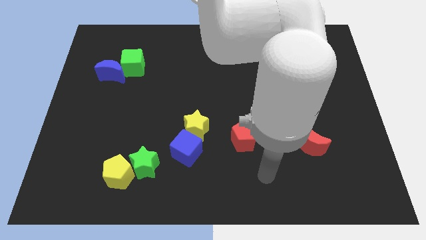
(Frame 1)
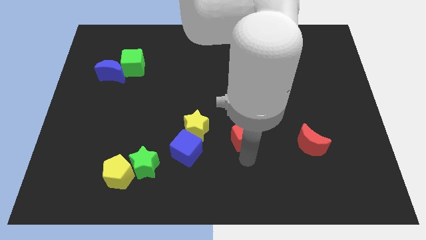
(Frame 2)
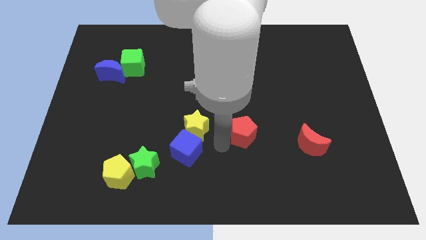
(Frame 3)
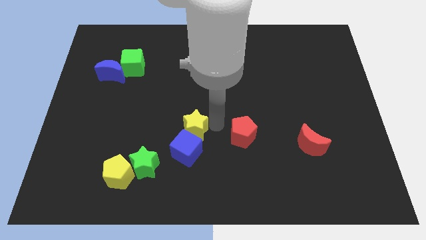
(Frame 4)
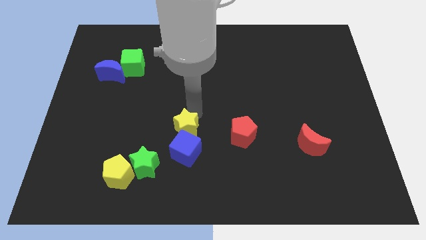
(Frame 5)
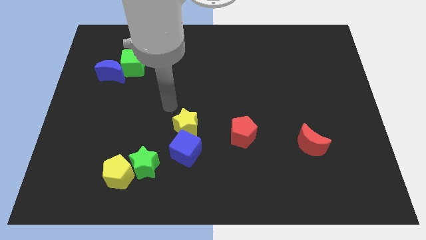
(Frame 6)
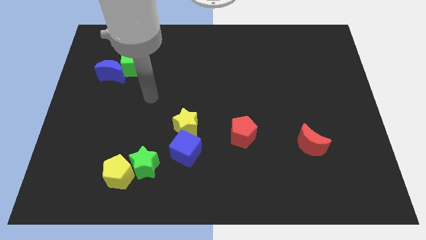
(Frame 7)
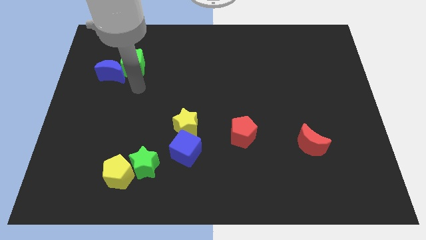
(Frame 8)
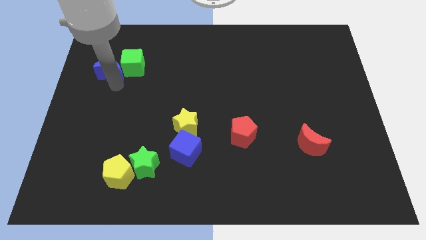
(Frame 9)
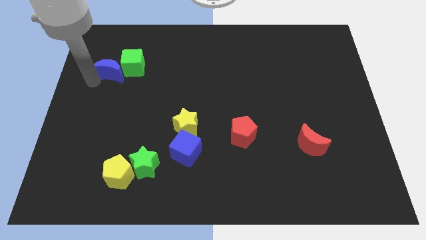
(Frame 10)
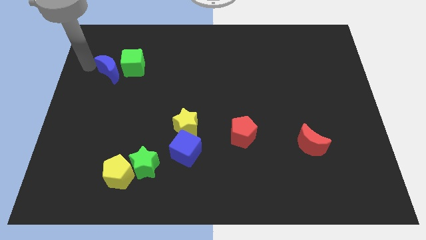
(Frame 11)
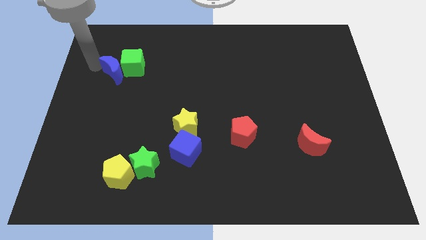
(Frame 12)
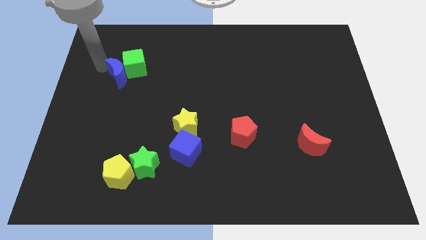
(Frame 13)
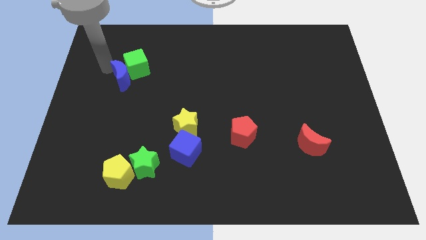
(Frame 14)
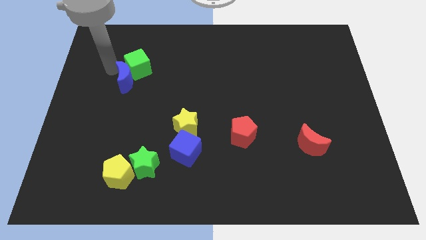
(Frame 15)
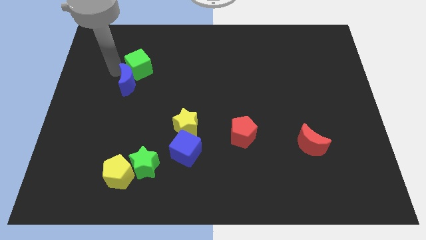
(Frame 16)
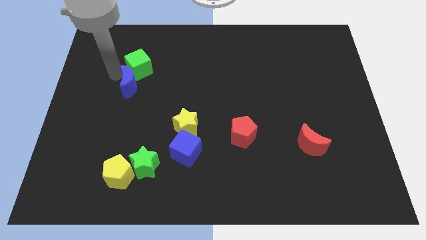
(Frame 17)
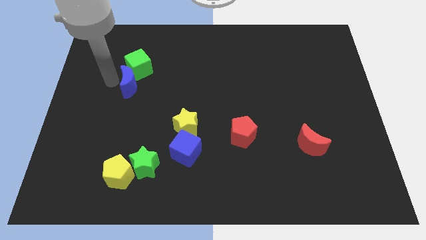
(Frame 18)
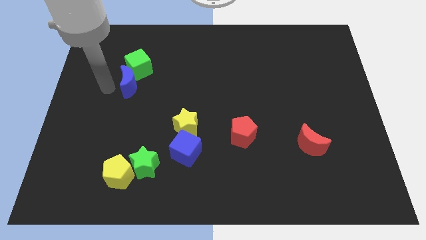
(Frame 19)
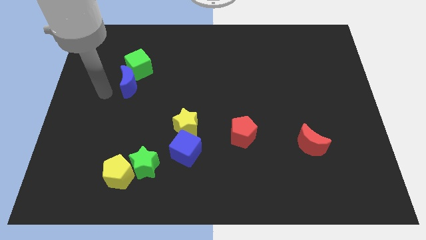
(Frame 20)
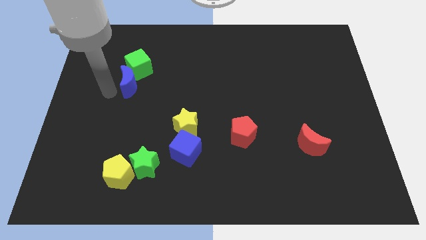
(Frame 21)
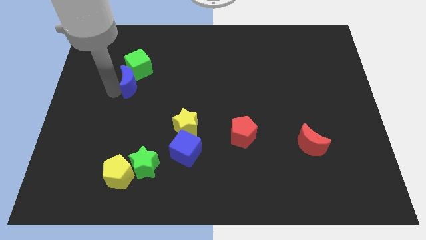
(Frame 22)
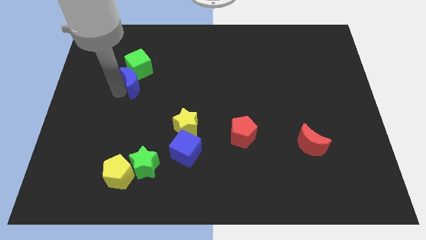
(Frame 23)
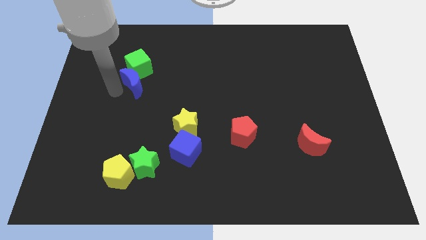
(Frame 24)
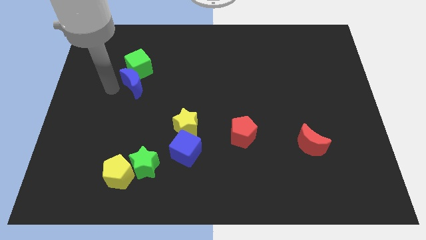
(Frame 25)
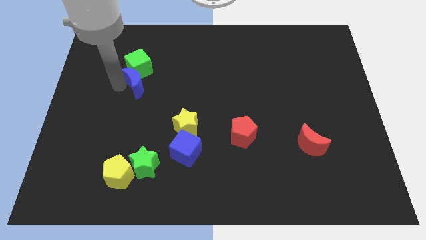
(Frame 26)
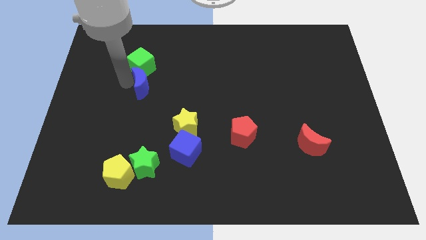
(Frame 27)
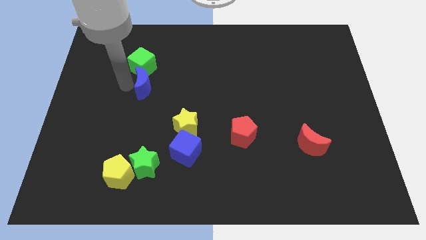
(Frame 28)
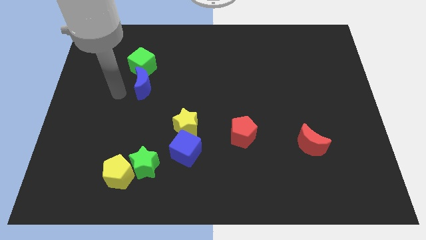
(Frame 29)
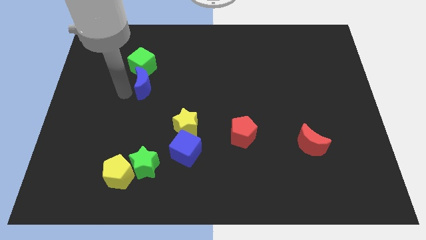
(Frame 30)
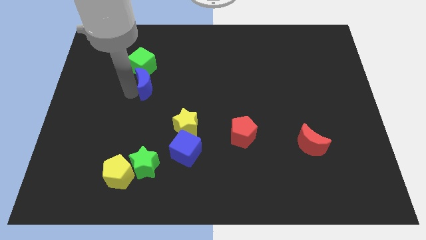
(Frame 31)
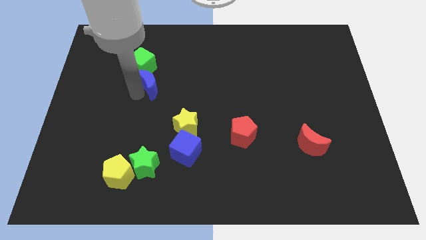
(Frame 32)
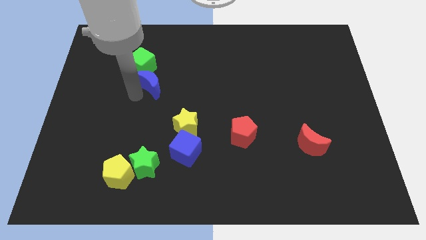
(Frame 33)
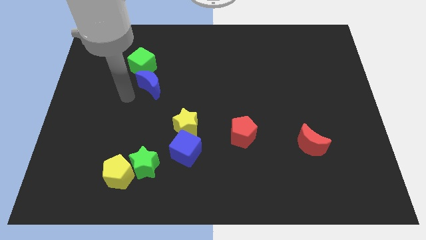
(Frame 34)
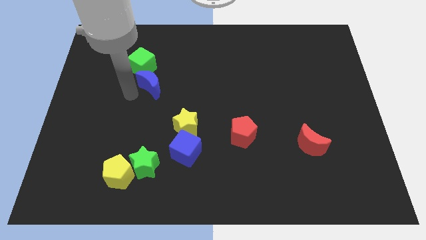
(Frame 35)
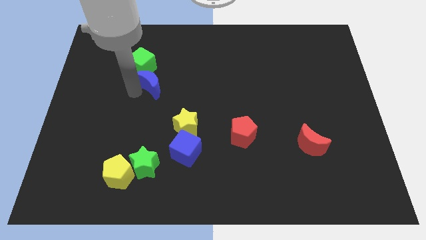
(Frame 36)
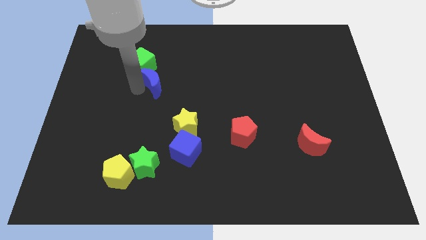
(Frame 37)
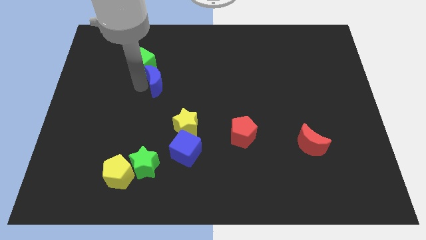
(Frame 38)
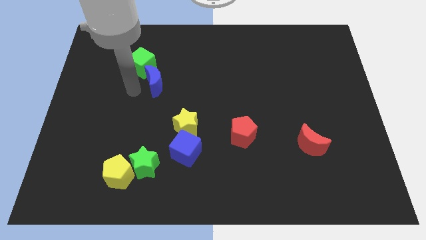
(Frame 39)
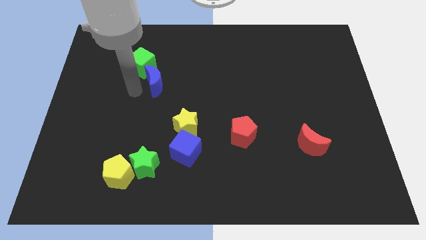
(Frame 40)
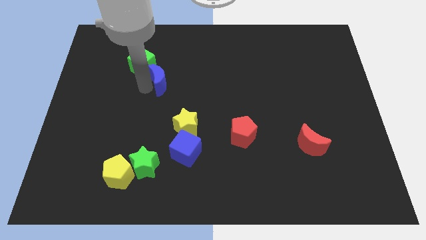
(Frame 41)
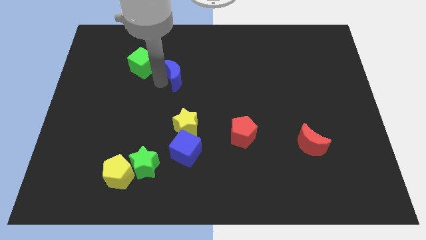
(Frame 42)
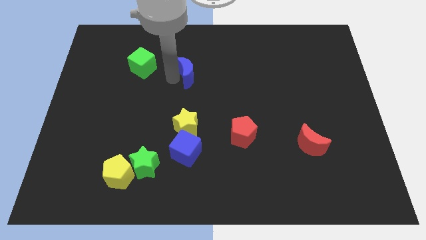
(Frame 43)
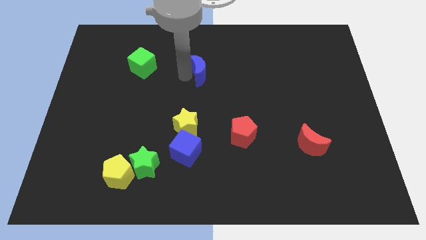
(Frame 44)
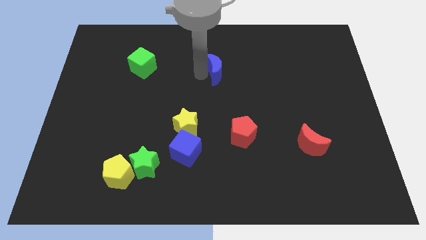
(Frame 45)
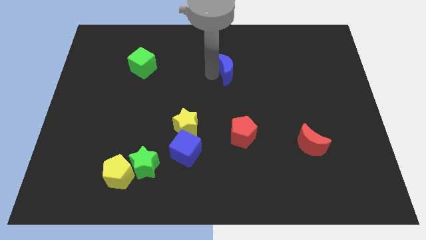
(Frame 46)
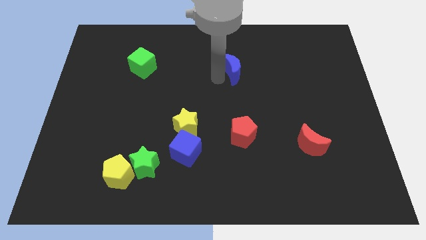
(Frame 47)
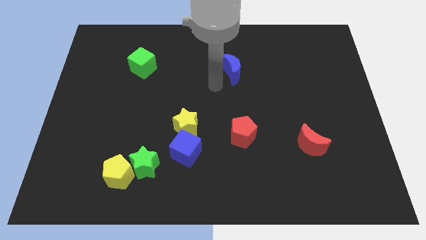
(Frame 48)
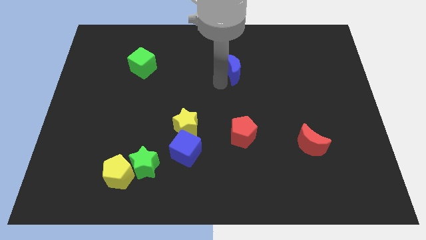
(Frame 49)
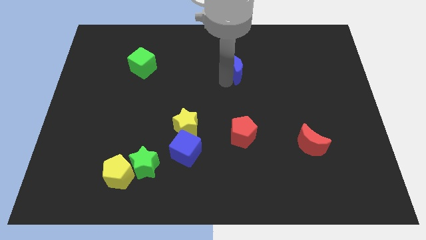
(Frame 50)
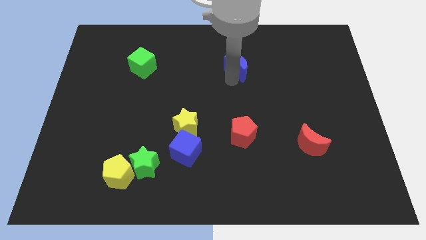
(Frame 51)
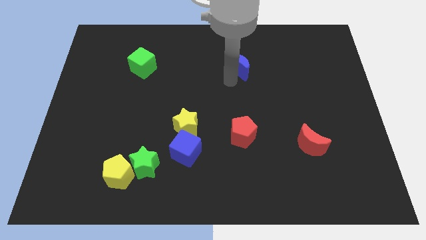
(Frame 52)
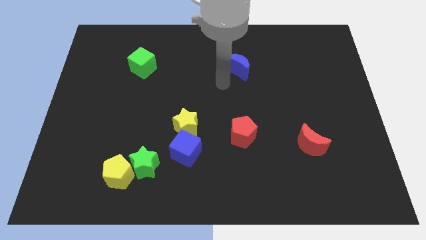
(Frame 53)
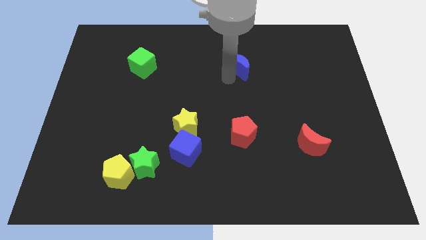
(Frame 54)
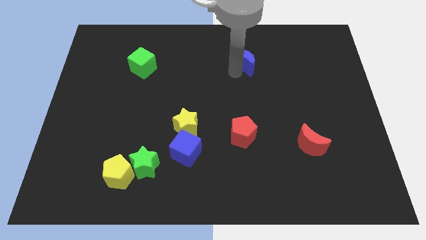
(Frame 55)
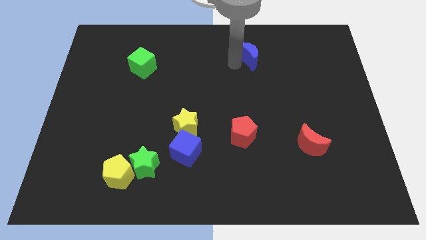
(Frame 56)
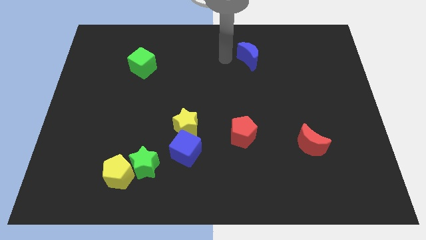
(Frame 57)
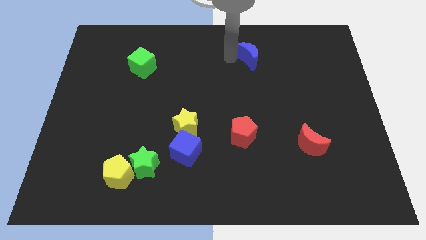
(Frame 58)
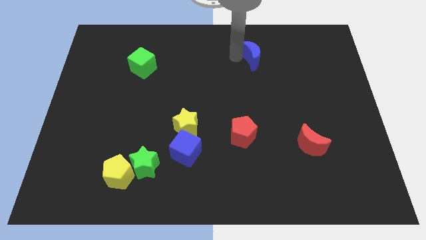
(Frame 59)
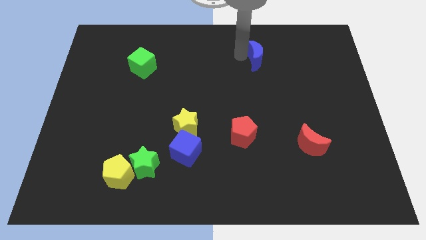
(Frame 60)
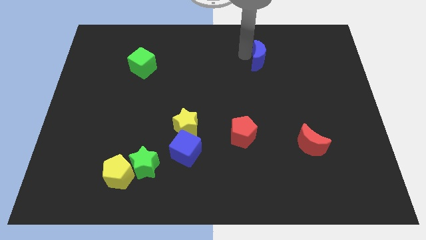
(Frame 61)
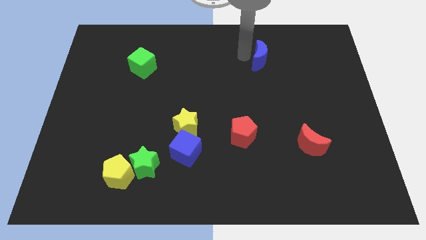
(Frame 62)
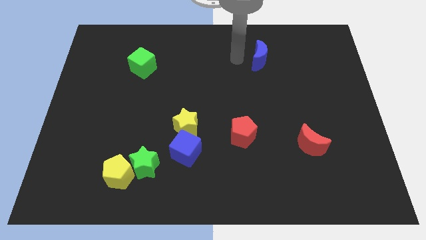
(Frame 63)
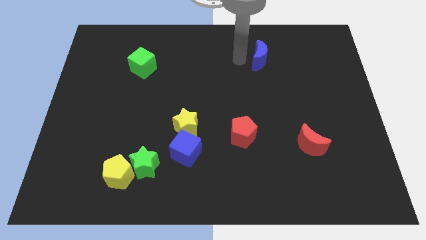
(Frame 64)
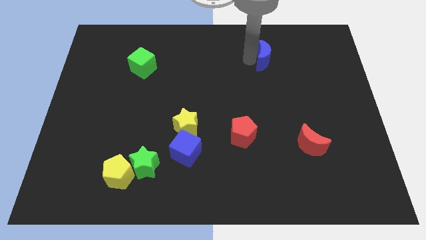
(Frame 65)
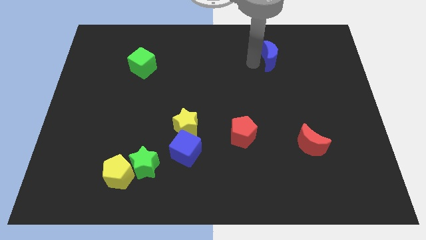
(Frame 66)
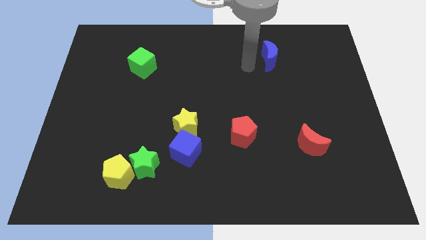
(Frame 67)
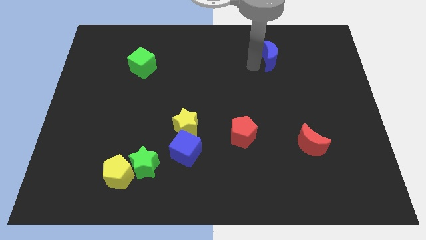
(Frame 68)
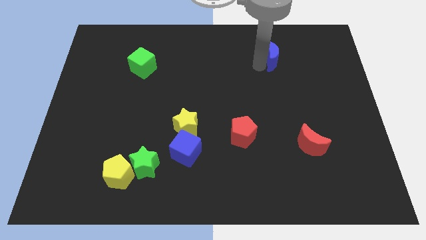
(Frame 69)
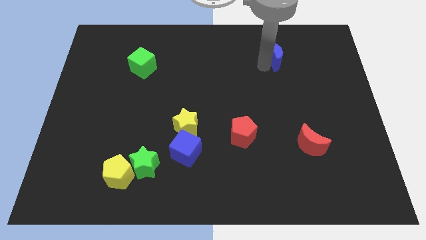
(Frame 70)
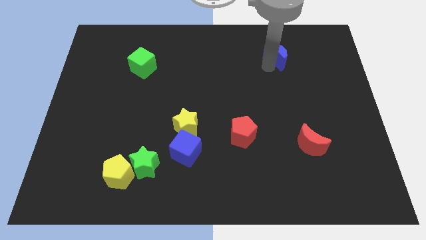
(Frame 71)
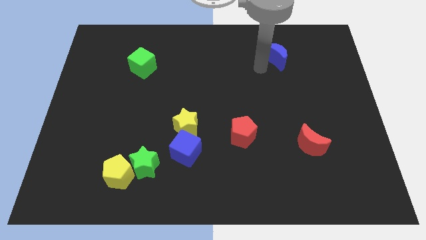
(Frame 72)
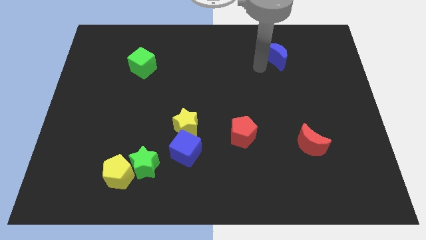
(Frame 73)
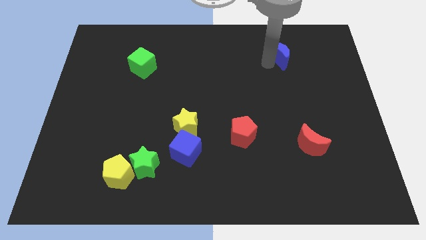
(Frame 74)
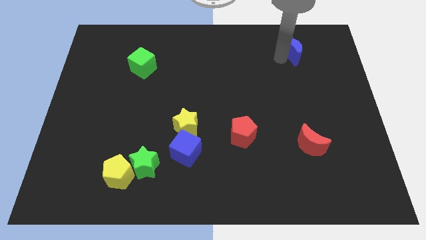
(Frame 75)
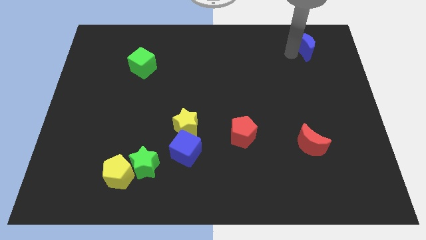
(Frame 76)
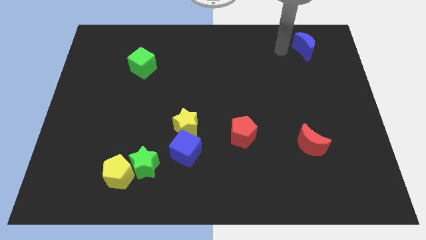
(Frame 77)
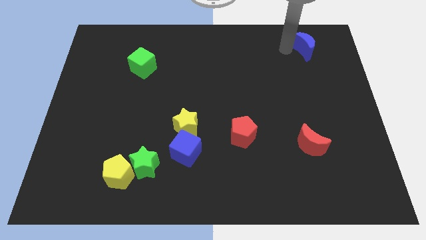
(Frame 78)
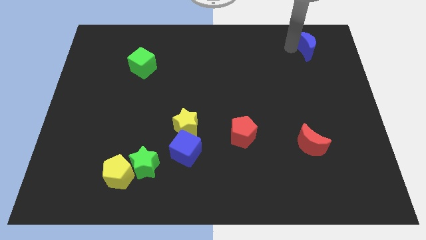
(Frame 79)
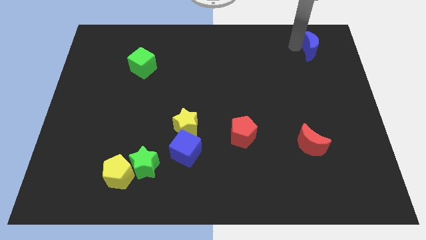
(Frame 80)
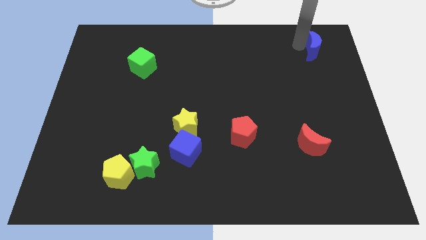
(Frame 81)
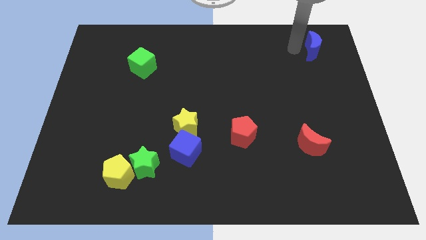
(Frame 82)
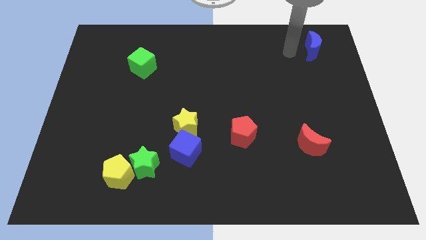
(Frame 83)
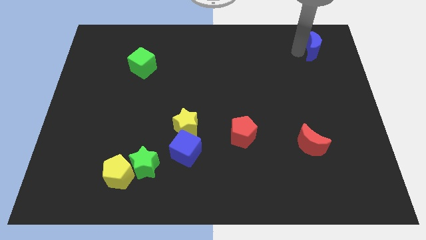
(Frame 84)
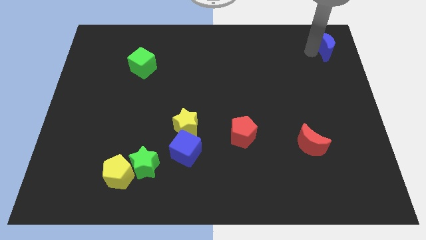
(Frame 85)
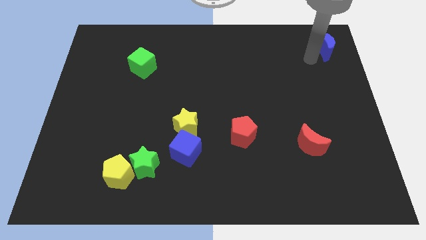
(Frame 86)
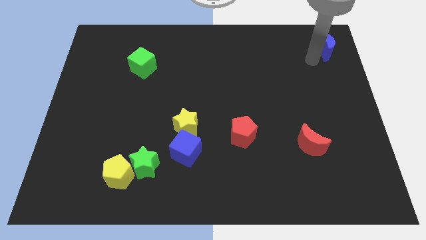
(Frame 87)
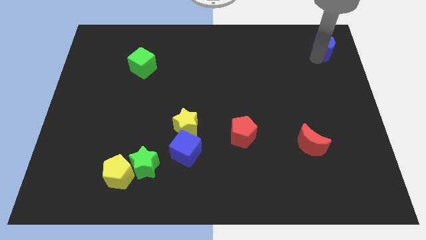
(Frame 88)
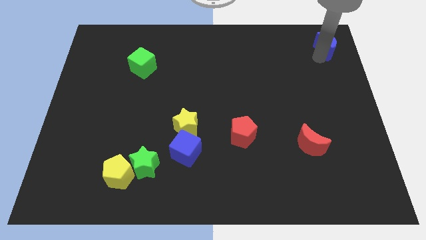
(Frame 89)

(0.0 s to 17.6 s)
move the blue moon to the top right
